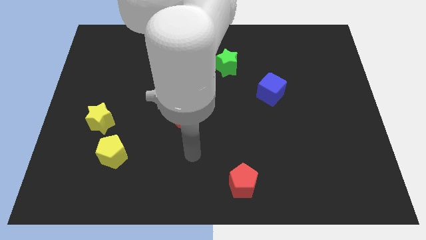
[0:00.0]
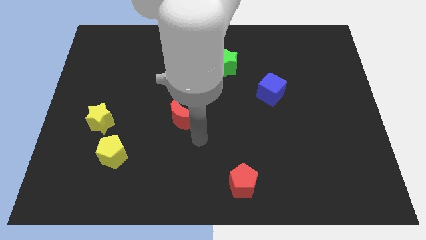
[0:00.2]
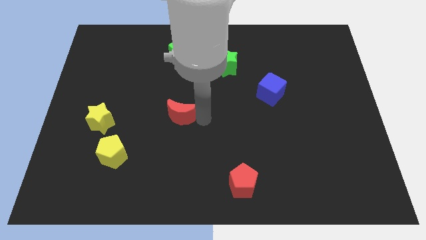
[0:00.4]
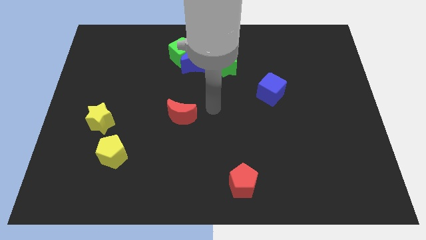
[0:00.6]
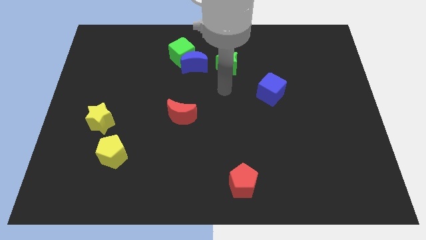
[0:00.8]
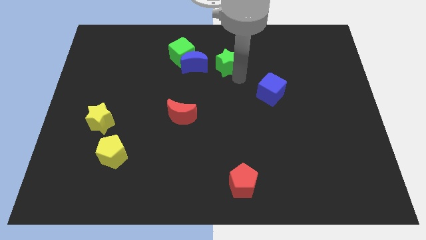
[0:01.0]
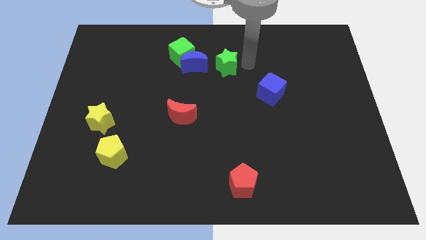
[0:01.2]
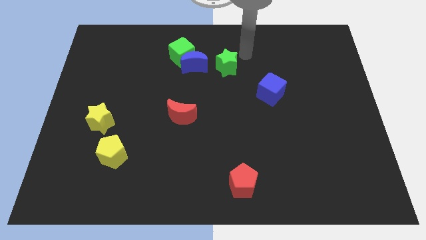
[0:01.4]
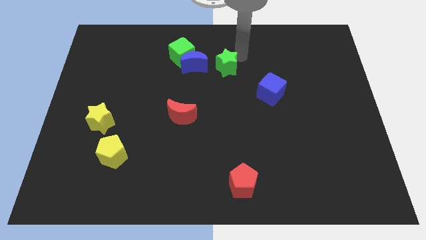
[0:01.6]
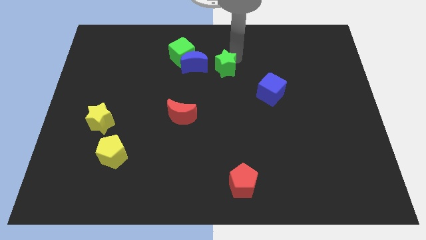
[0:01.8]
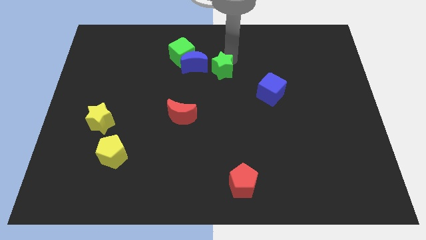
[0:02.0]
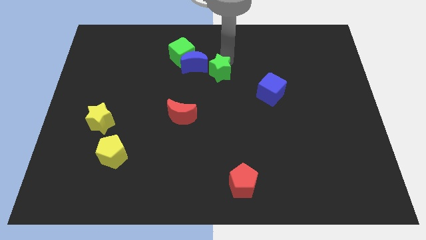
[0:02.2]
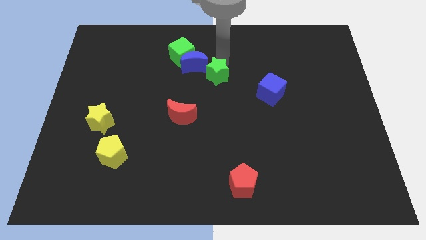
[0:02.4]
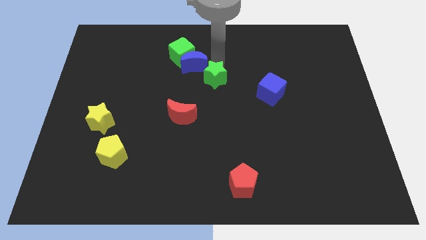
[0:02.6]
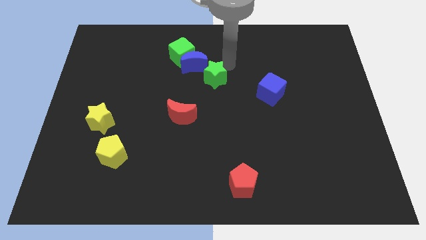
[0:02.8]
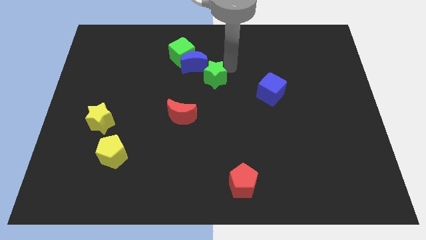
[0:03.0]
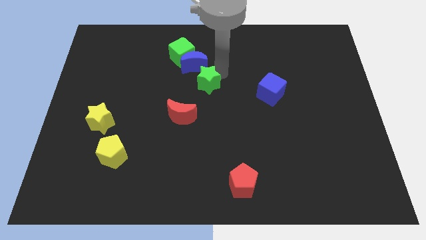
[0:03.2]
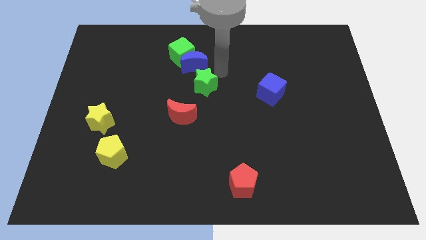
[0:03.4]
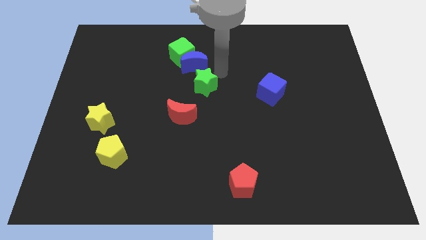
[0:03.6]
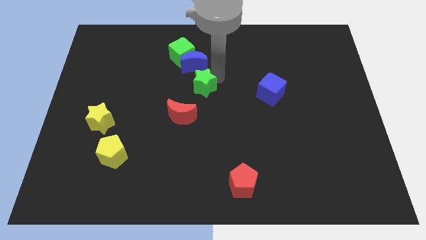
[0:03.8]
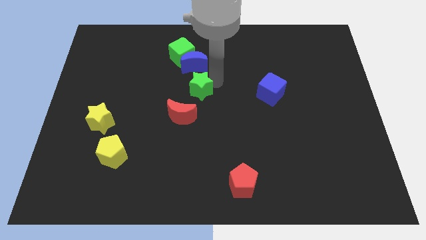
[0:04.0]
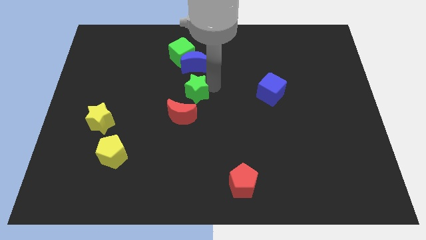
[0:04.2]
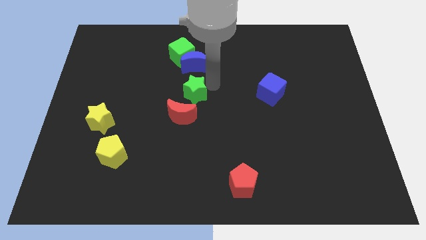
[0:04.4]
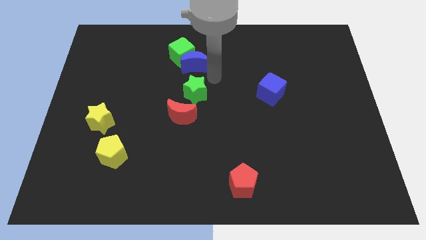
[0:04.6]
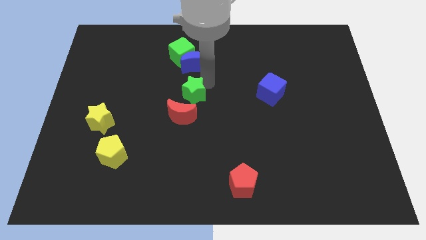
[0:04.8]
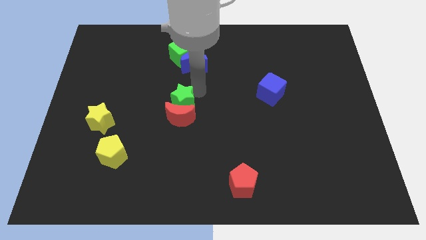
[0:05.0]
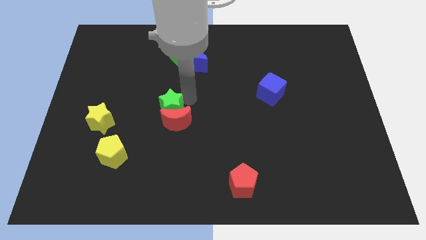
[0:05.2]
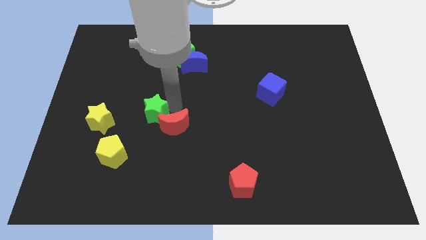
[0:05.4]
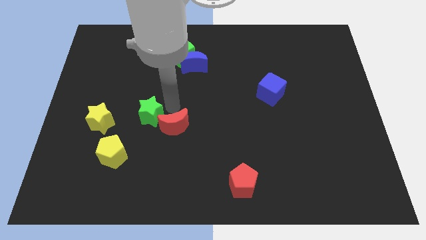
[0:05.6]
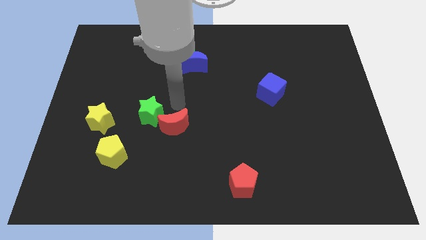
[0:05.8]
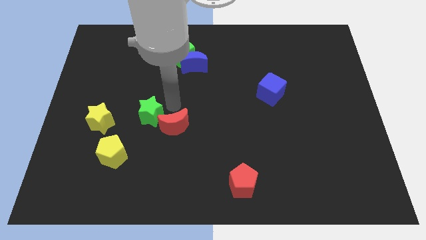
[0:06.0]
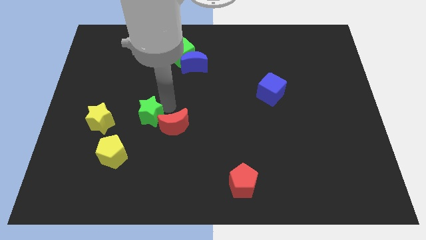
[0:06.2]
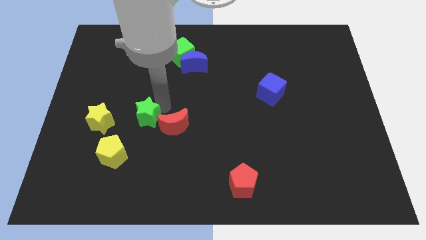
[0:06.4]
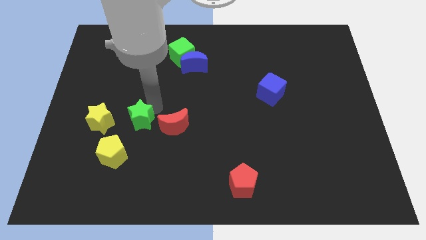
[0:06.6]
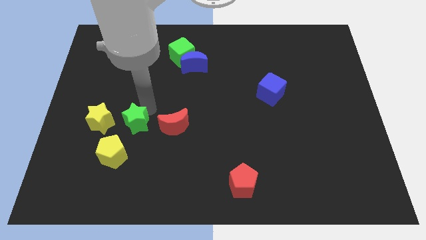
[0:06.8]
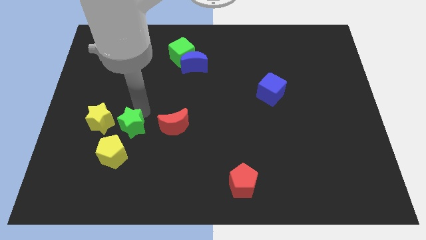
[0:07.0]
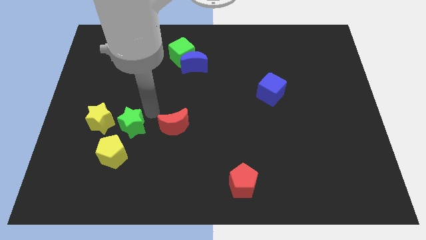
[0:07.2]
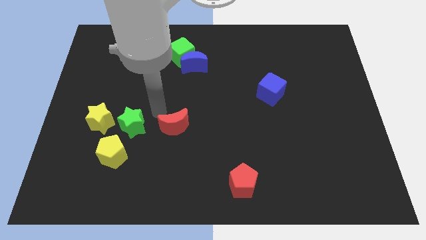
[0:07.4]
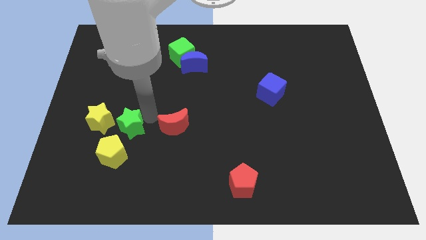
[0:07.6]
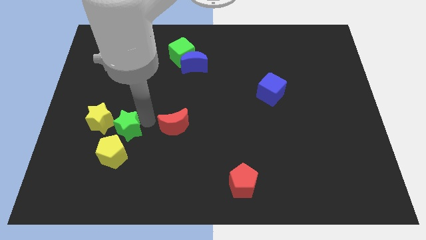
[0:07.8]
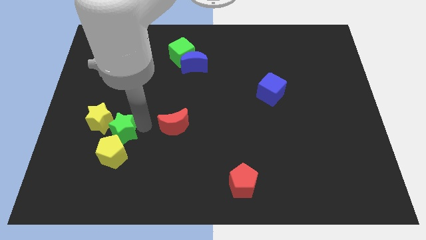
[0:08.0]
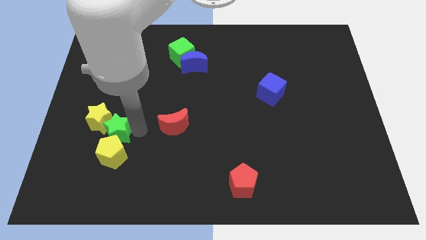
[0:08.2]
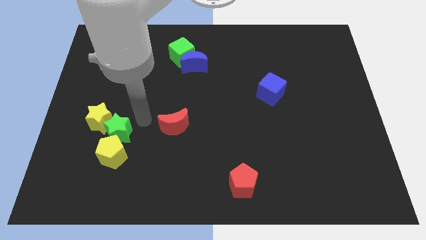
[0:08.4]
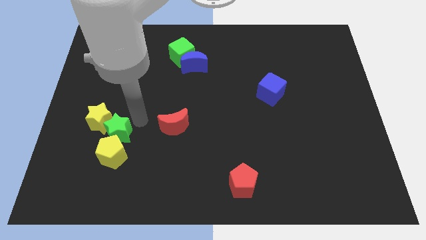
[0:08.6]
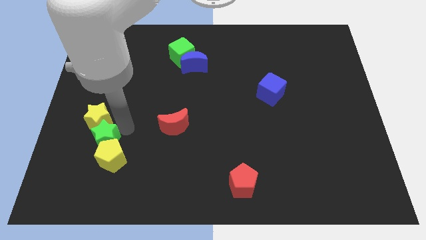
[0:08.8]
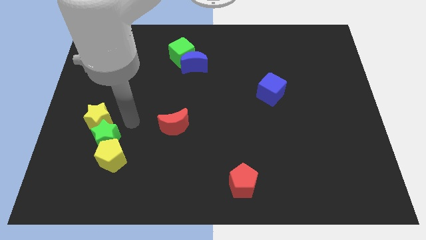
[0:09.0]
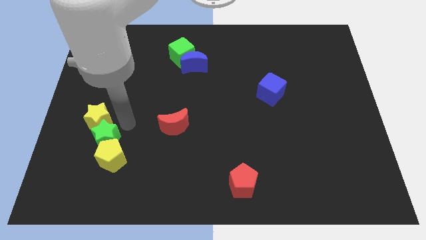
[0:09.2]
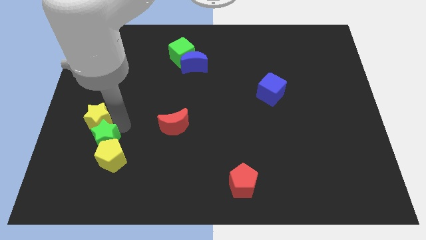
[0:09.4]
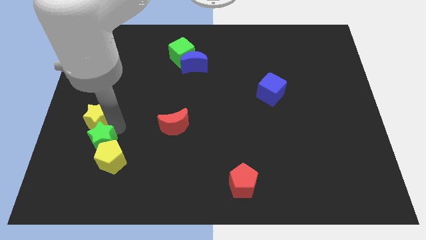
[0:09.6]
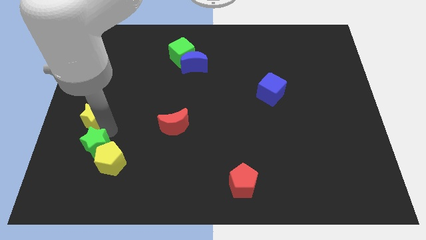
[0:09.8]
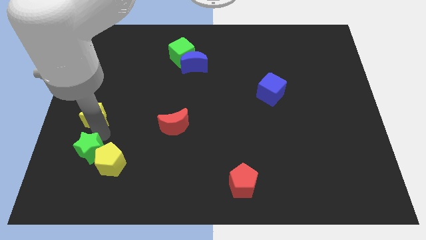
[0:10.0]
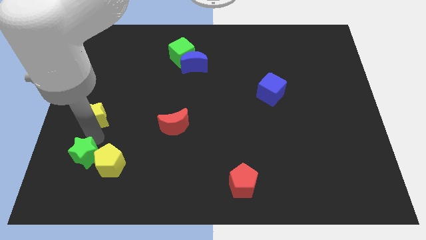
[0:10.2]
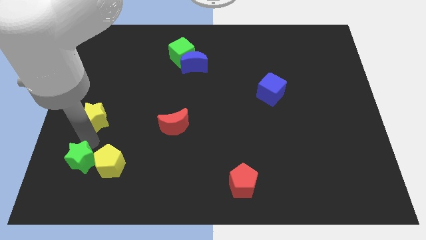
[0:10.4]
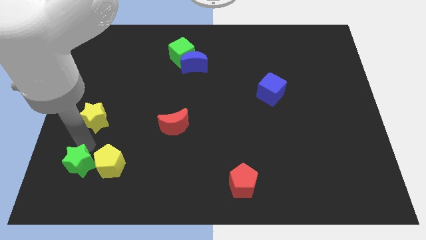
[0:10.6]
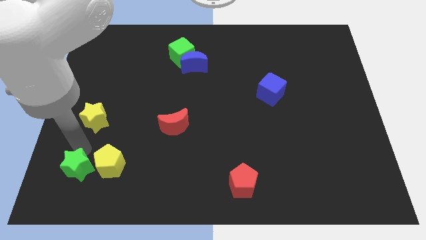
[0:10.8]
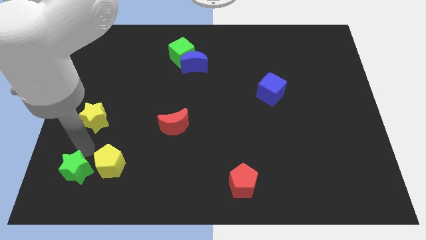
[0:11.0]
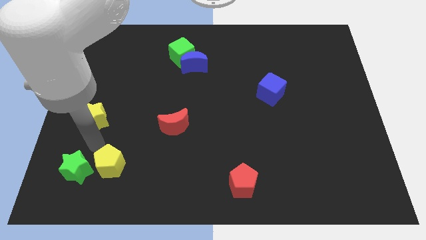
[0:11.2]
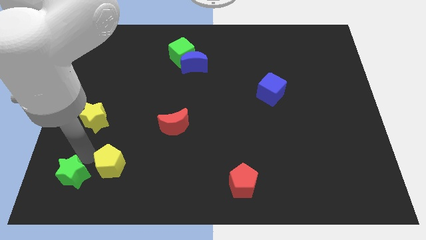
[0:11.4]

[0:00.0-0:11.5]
slide the green star to the lower left corner
